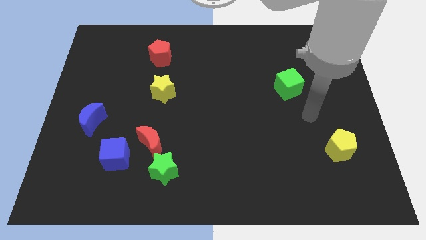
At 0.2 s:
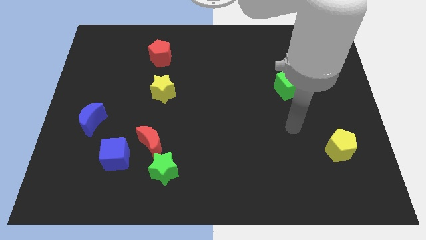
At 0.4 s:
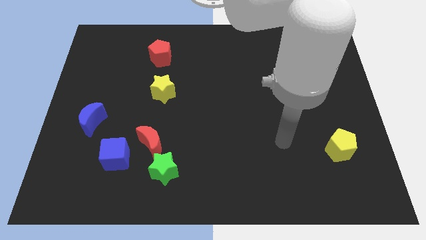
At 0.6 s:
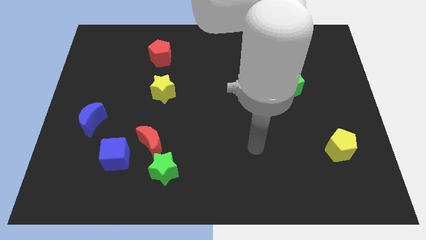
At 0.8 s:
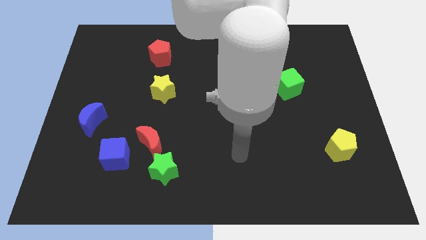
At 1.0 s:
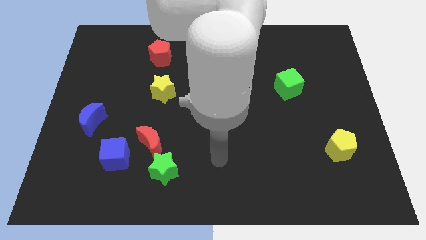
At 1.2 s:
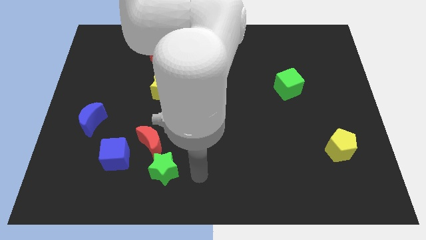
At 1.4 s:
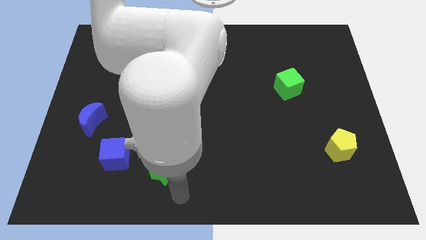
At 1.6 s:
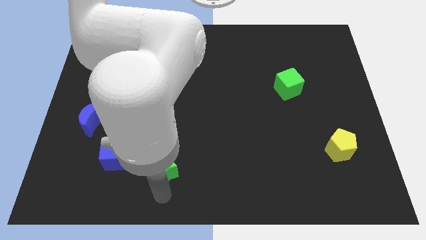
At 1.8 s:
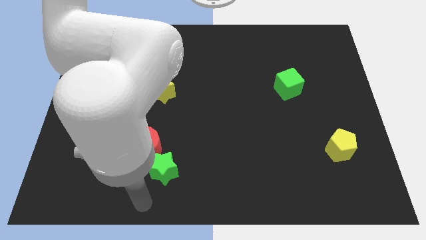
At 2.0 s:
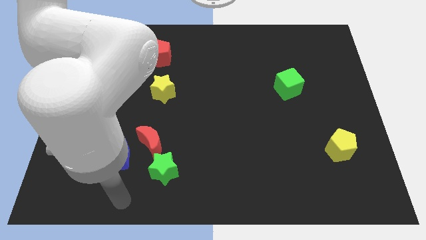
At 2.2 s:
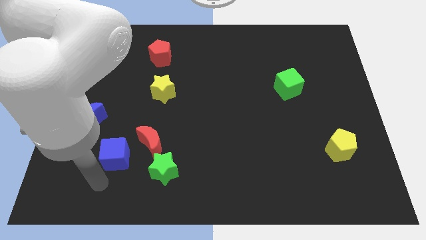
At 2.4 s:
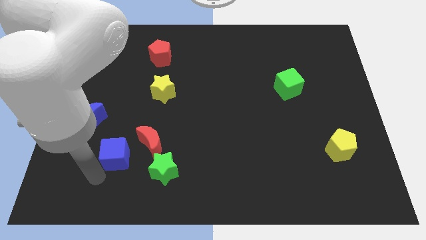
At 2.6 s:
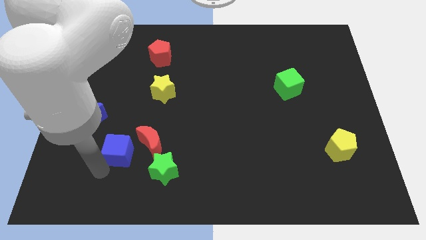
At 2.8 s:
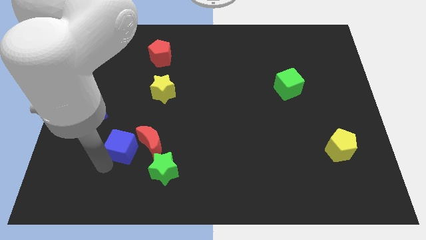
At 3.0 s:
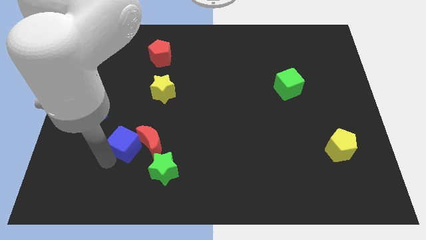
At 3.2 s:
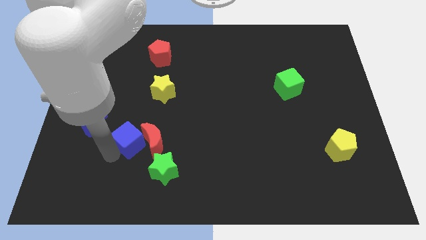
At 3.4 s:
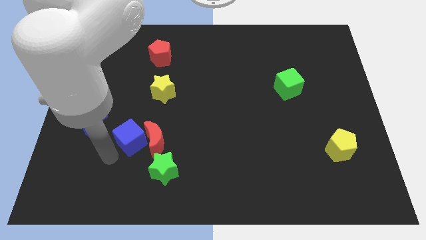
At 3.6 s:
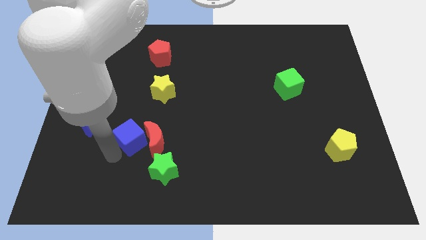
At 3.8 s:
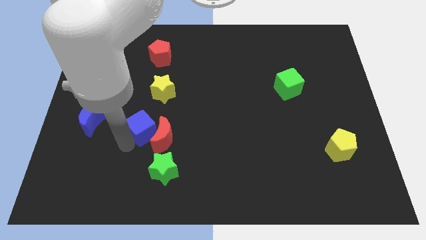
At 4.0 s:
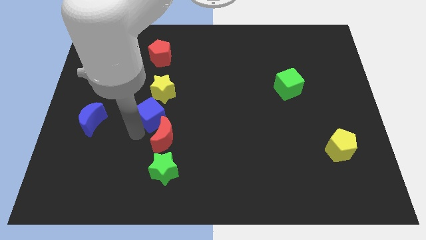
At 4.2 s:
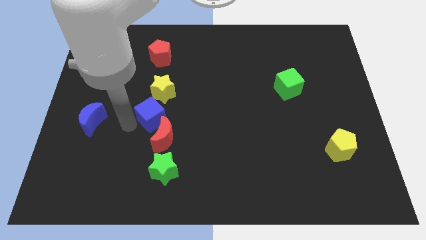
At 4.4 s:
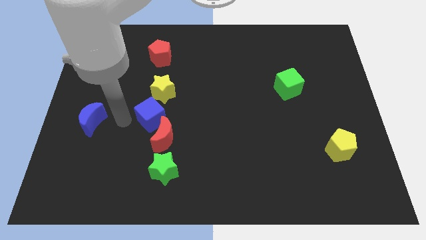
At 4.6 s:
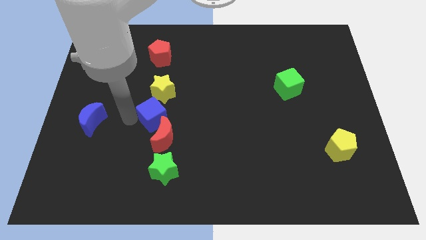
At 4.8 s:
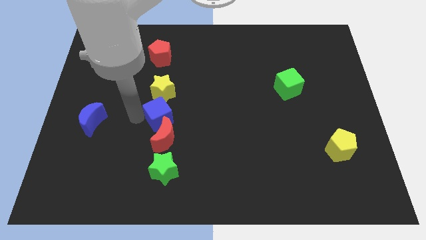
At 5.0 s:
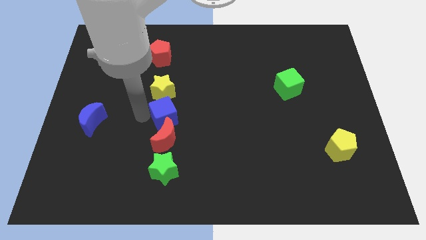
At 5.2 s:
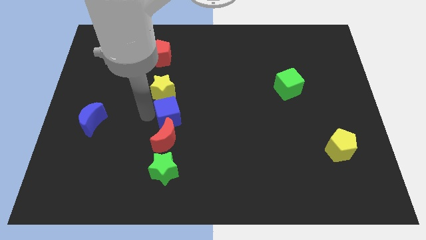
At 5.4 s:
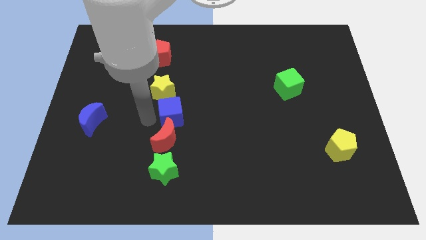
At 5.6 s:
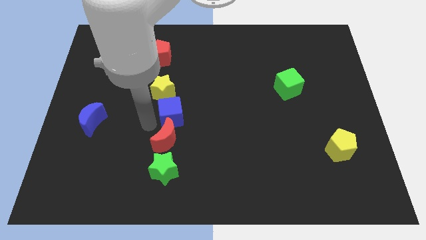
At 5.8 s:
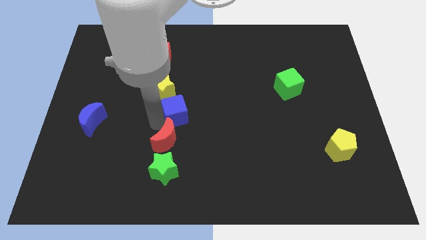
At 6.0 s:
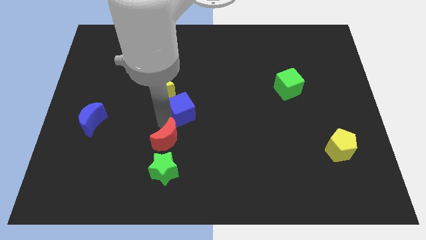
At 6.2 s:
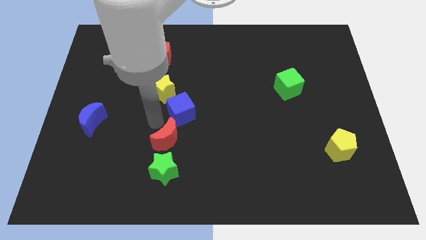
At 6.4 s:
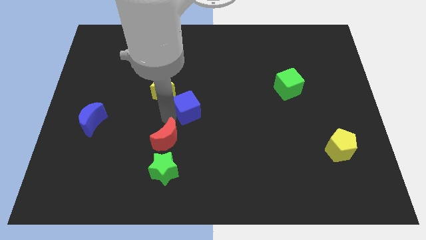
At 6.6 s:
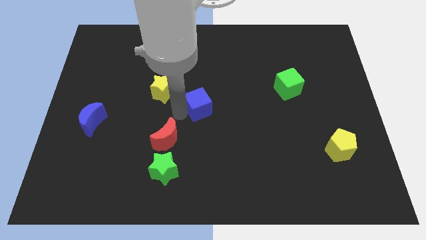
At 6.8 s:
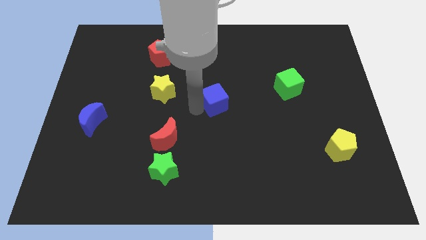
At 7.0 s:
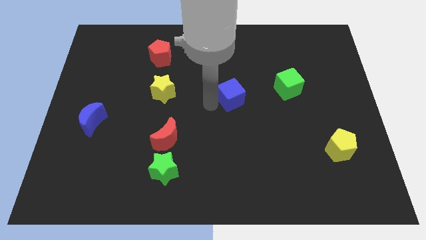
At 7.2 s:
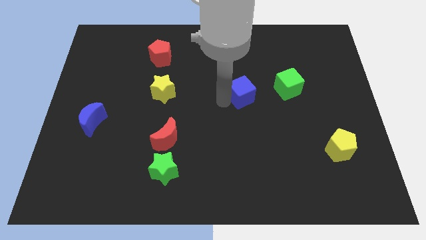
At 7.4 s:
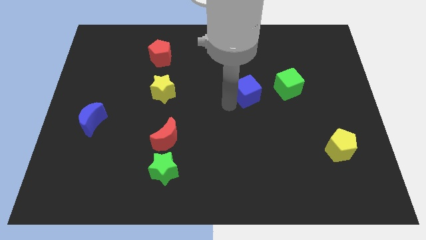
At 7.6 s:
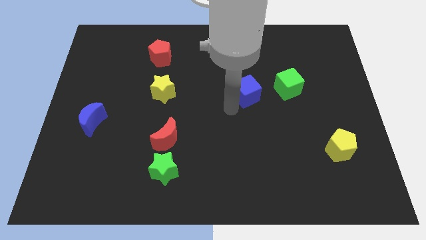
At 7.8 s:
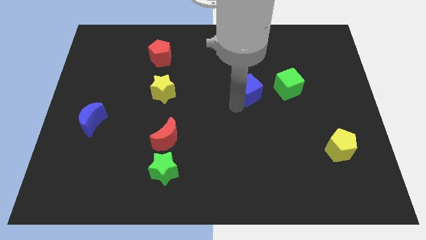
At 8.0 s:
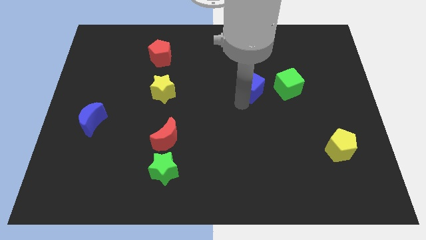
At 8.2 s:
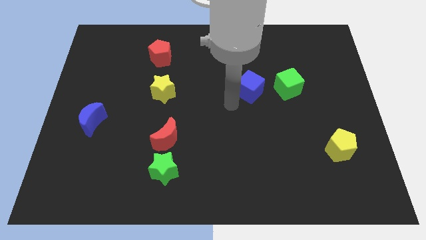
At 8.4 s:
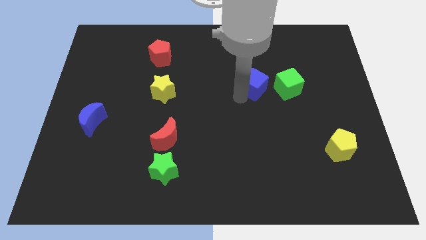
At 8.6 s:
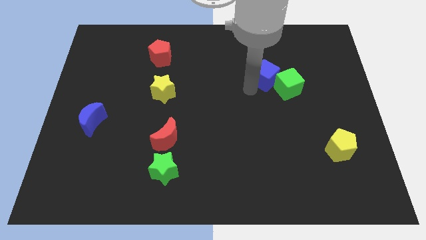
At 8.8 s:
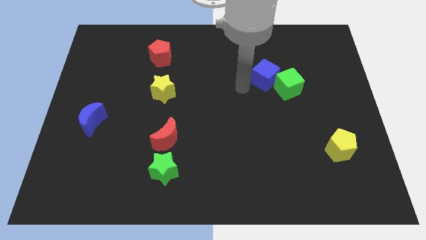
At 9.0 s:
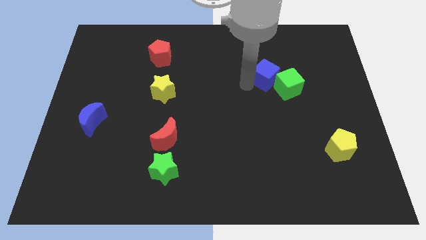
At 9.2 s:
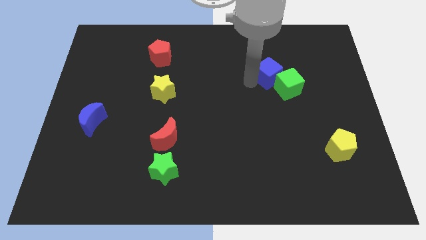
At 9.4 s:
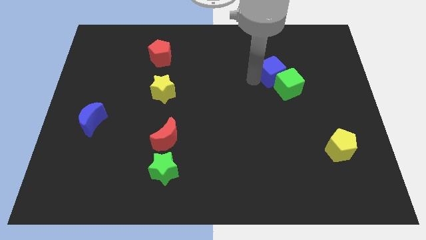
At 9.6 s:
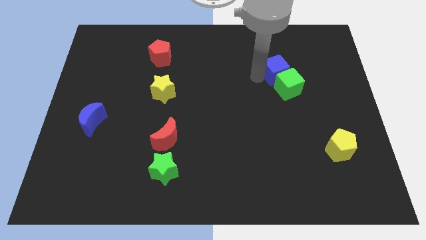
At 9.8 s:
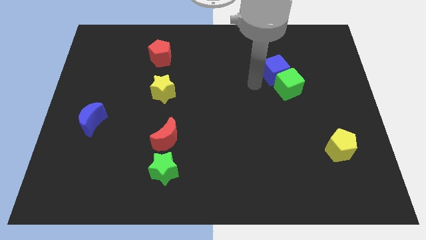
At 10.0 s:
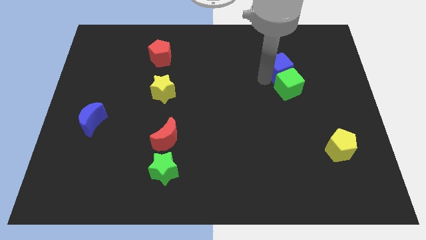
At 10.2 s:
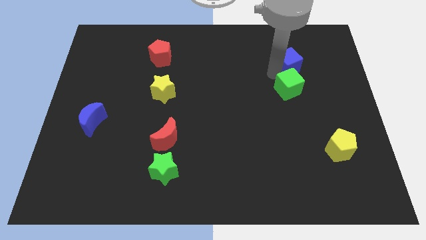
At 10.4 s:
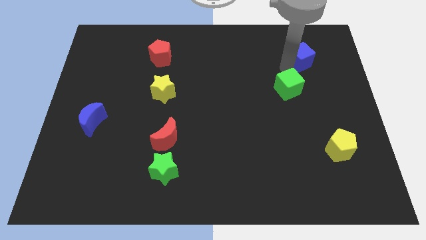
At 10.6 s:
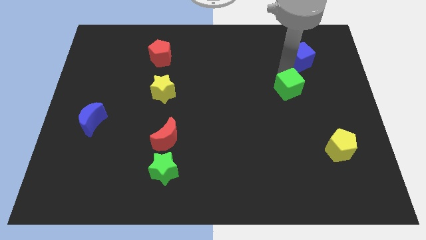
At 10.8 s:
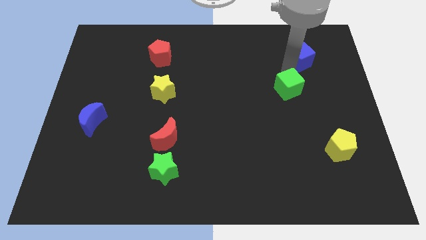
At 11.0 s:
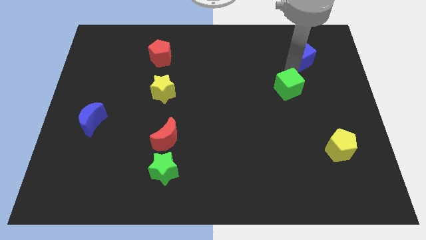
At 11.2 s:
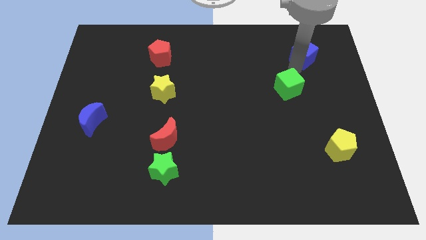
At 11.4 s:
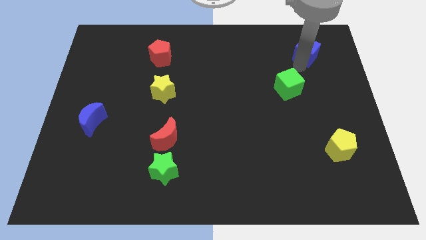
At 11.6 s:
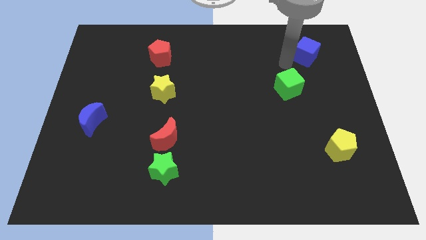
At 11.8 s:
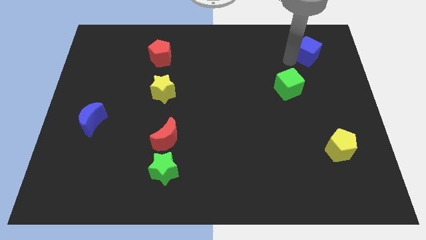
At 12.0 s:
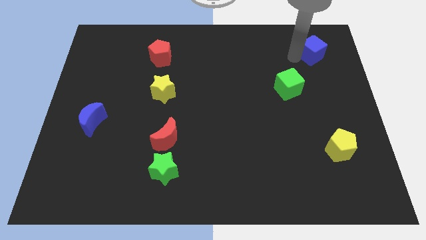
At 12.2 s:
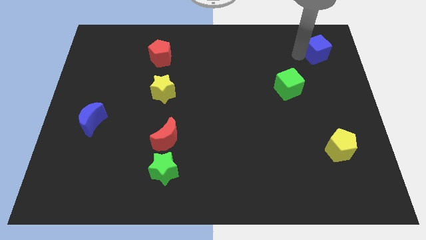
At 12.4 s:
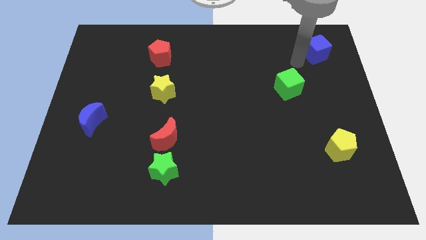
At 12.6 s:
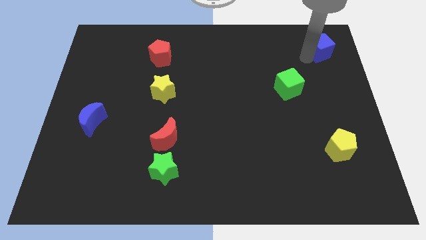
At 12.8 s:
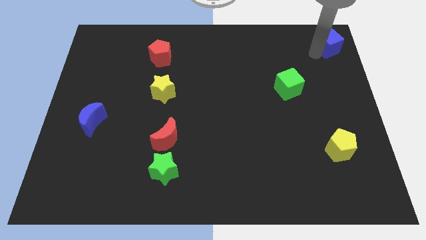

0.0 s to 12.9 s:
slide the blue cube to the top right
